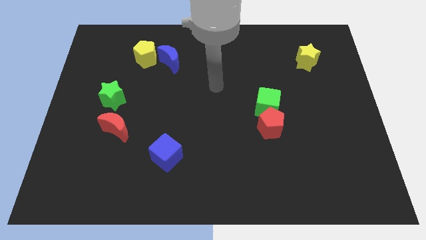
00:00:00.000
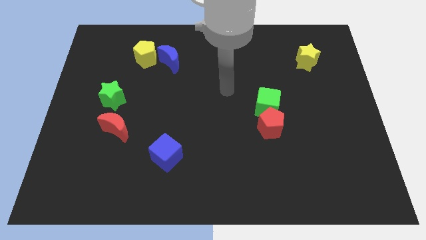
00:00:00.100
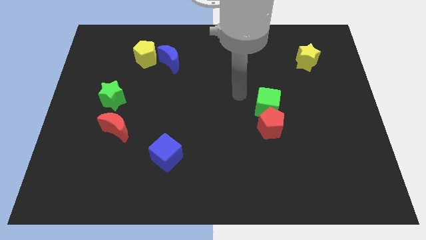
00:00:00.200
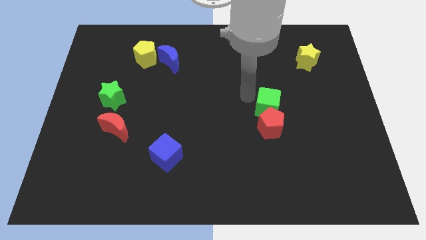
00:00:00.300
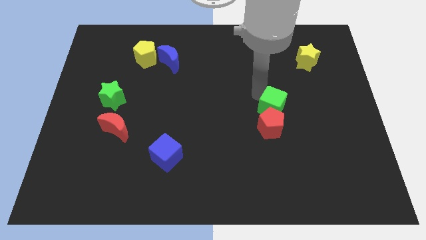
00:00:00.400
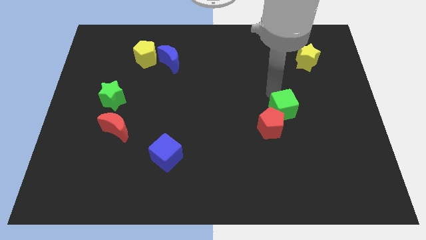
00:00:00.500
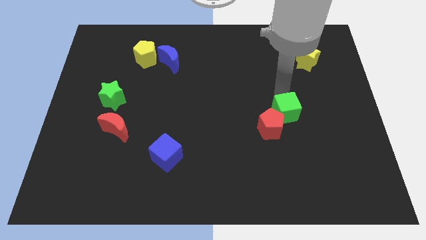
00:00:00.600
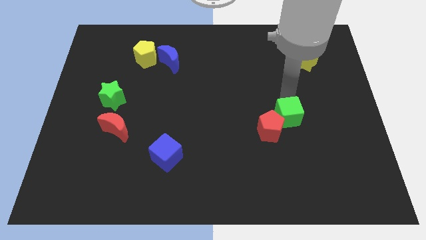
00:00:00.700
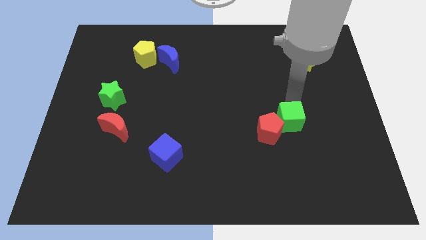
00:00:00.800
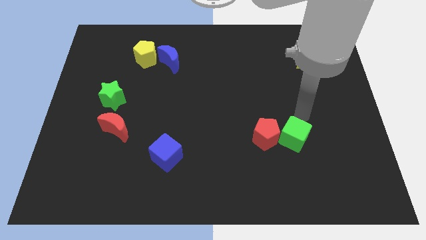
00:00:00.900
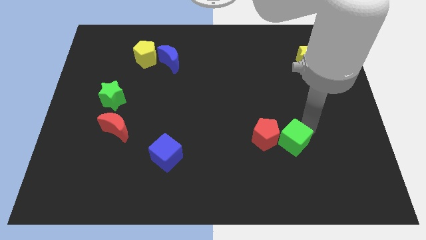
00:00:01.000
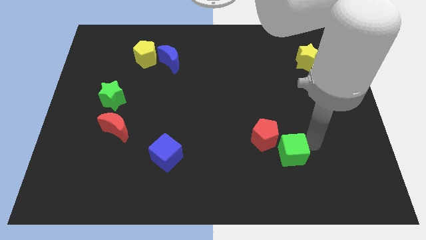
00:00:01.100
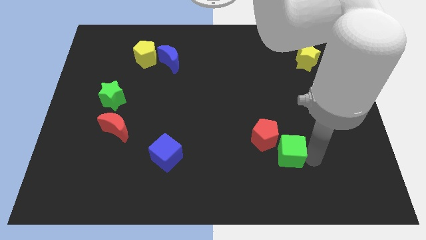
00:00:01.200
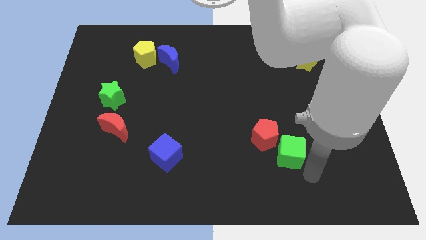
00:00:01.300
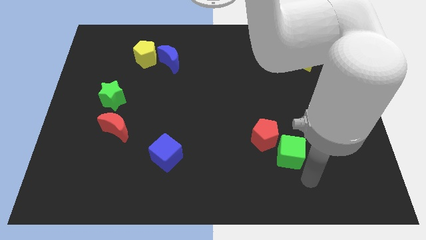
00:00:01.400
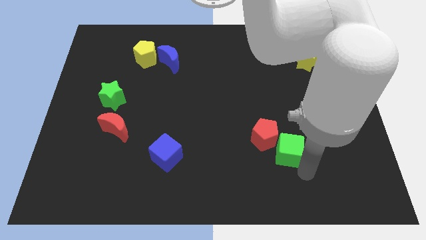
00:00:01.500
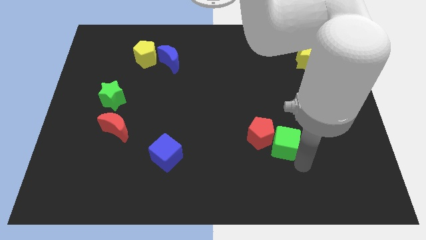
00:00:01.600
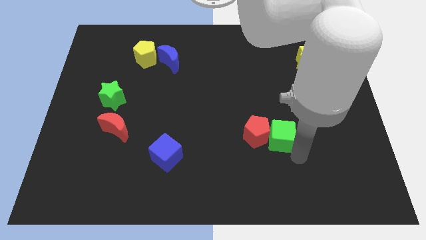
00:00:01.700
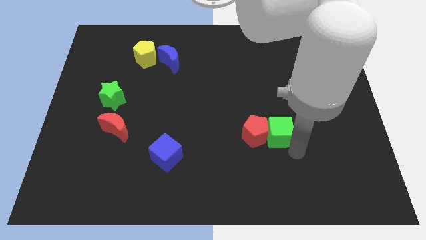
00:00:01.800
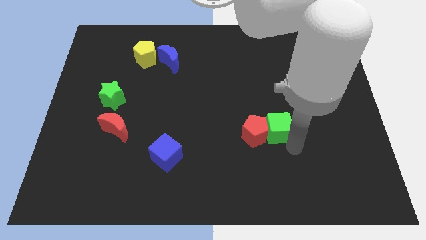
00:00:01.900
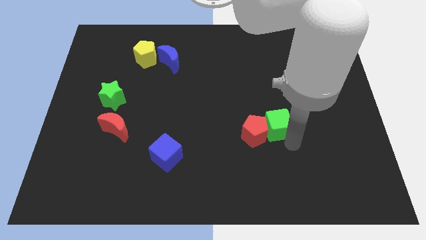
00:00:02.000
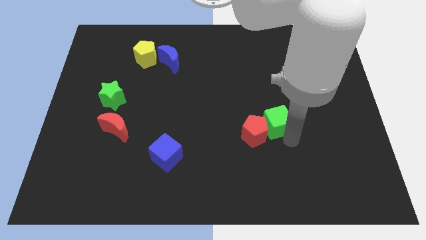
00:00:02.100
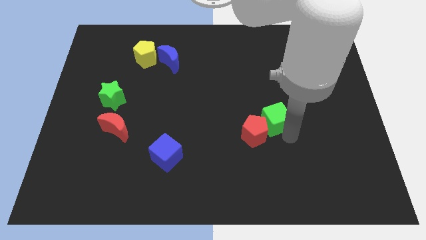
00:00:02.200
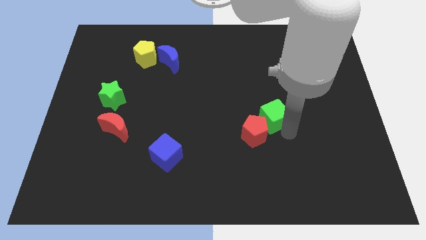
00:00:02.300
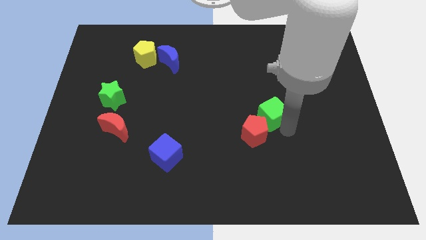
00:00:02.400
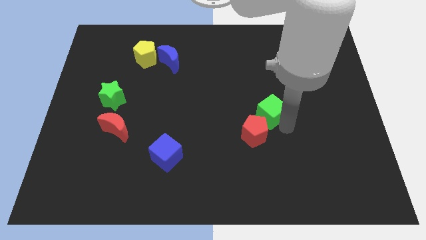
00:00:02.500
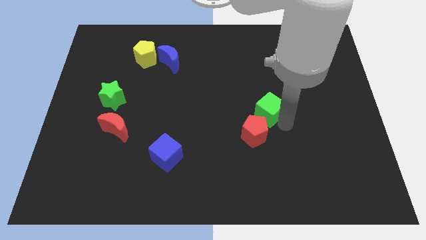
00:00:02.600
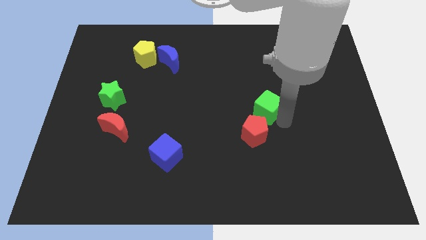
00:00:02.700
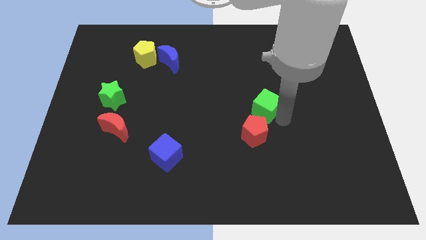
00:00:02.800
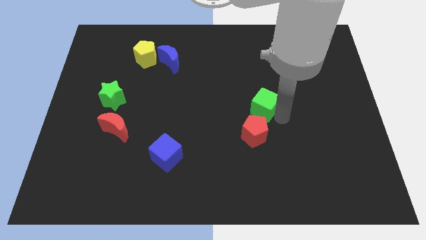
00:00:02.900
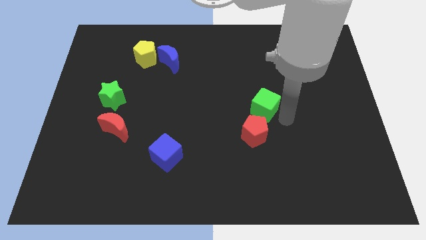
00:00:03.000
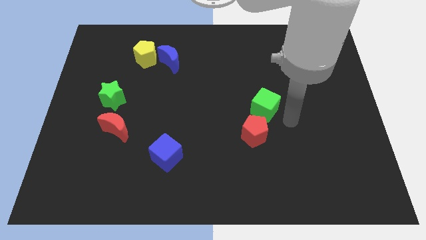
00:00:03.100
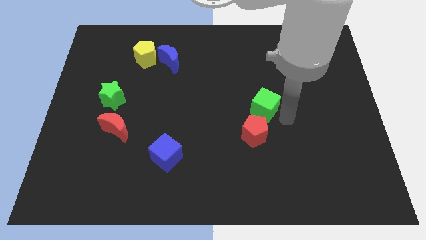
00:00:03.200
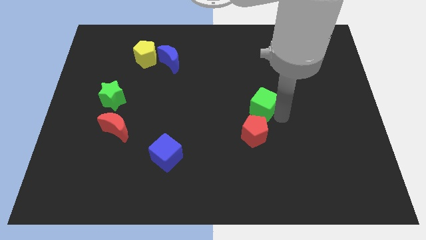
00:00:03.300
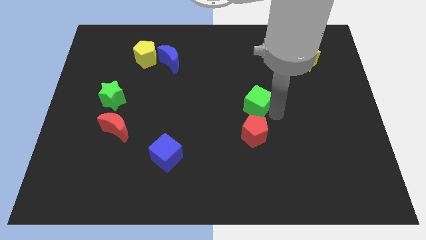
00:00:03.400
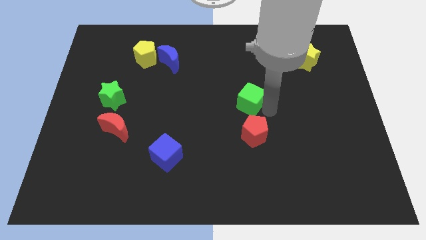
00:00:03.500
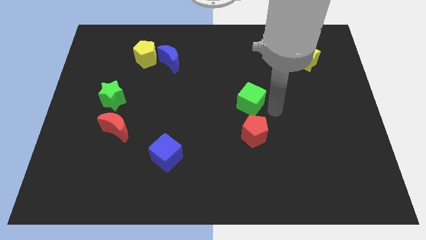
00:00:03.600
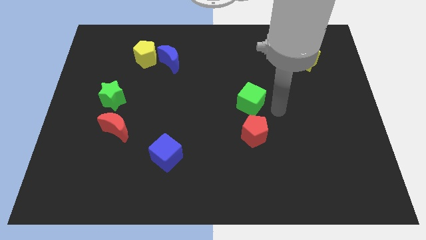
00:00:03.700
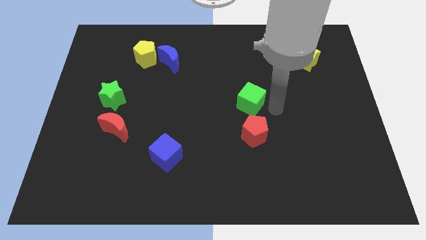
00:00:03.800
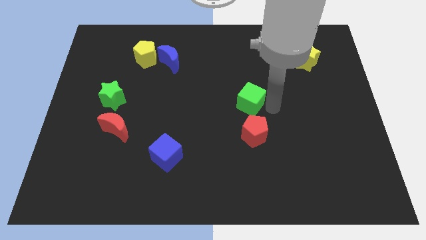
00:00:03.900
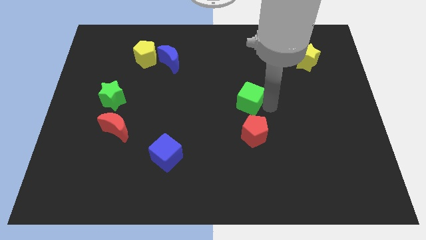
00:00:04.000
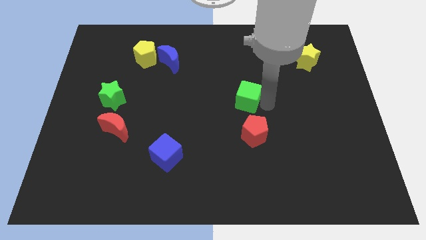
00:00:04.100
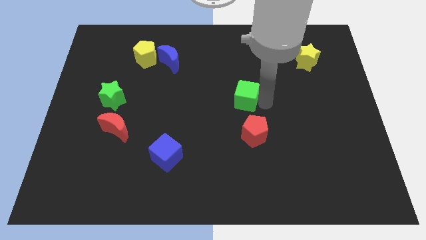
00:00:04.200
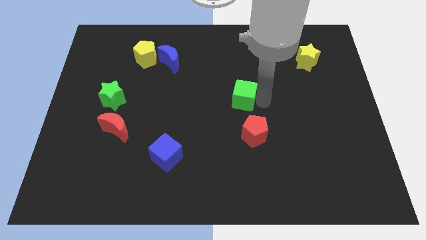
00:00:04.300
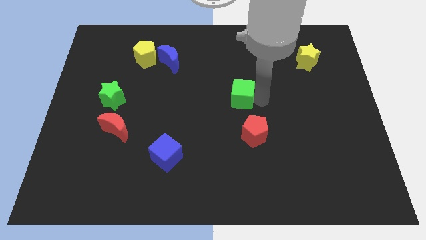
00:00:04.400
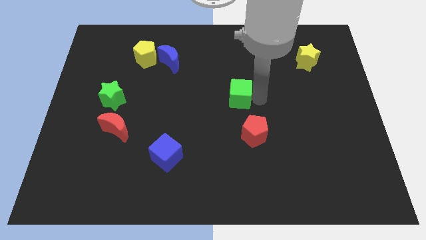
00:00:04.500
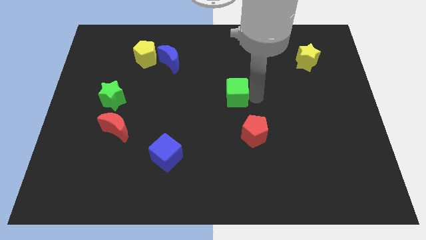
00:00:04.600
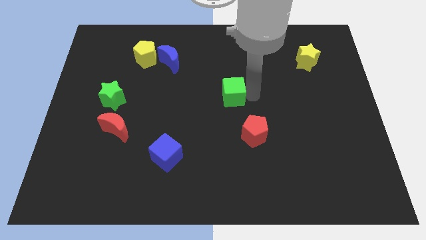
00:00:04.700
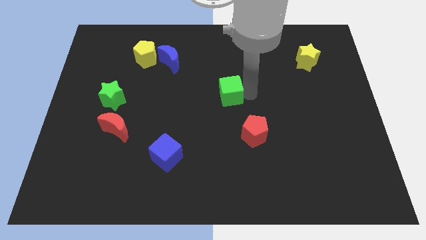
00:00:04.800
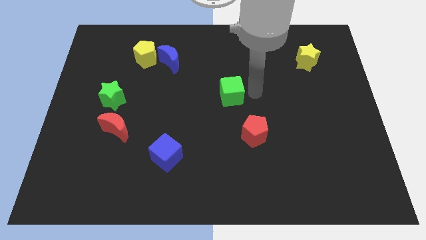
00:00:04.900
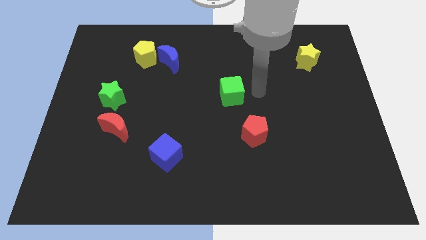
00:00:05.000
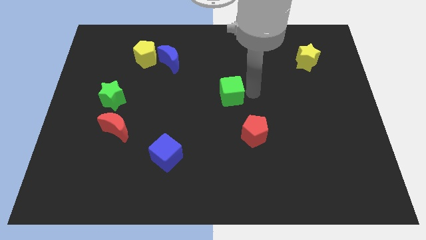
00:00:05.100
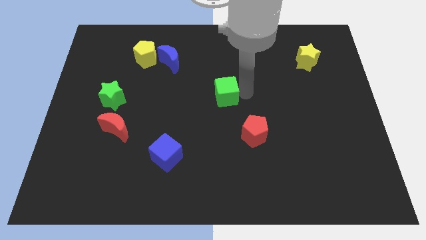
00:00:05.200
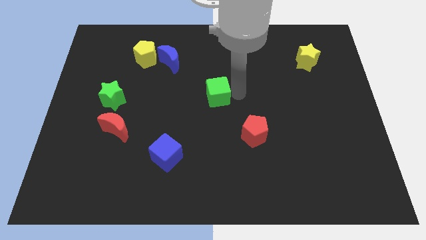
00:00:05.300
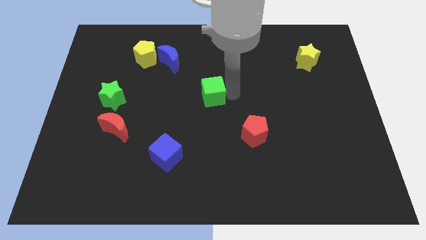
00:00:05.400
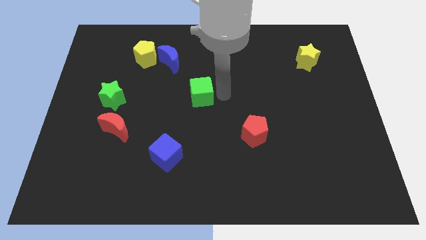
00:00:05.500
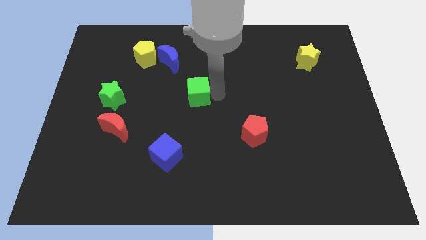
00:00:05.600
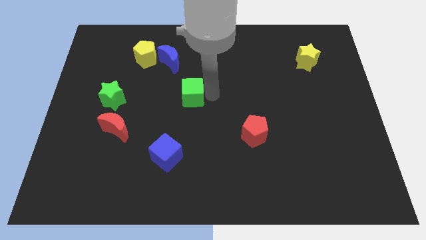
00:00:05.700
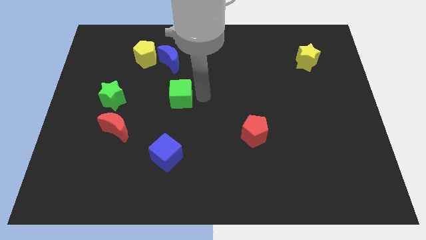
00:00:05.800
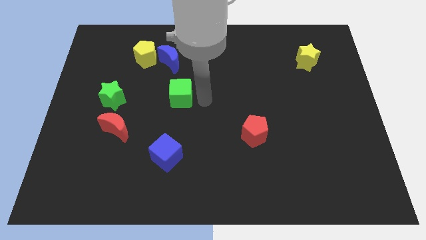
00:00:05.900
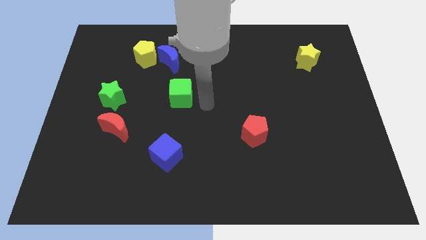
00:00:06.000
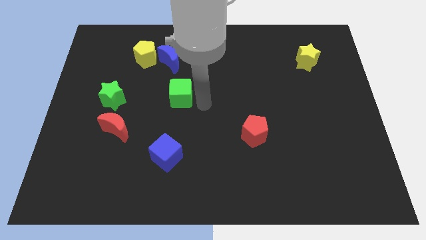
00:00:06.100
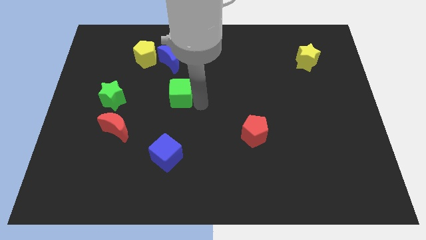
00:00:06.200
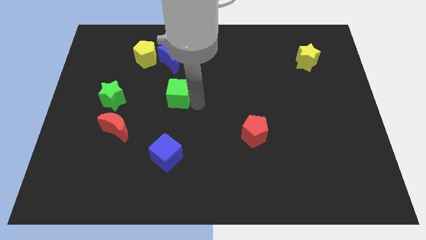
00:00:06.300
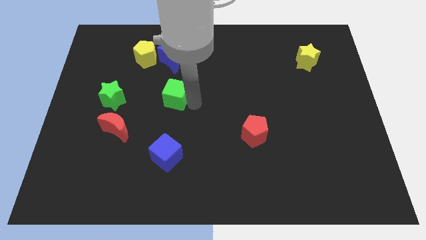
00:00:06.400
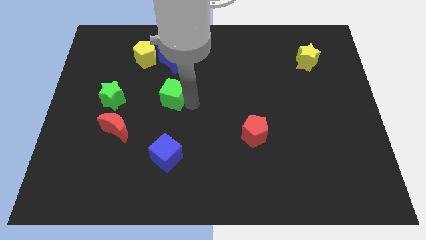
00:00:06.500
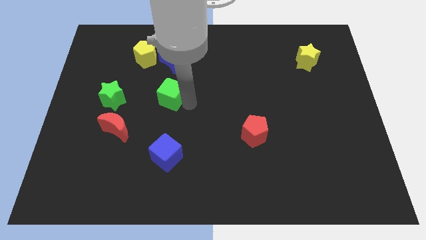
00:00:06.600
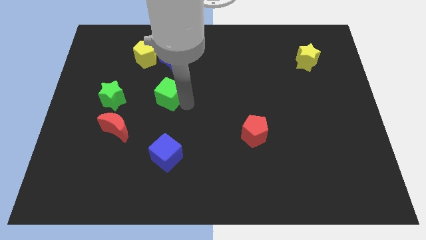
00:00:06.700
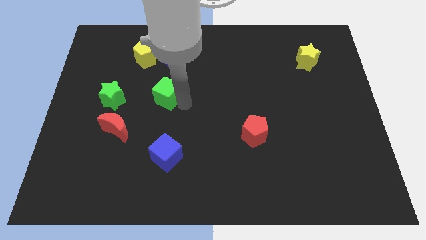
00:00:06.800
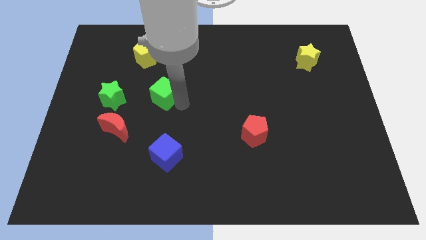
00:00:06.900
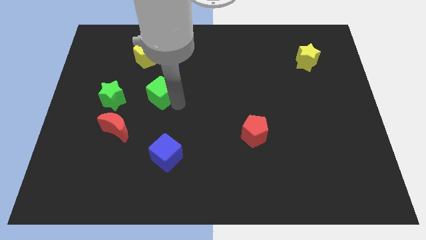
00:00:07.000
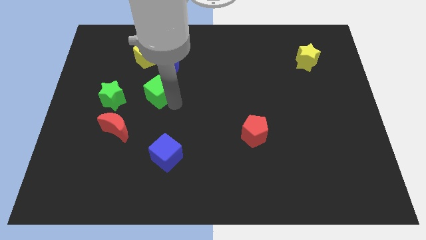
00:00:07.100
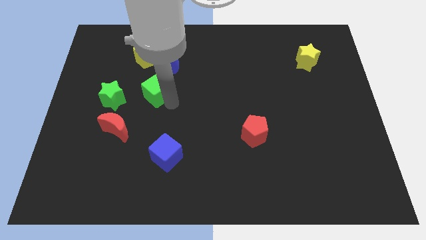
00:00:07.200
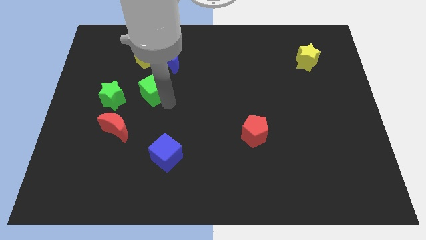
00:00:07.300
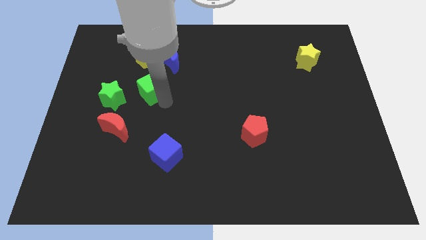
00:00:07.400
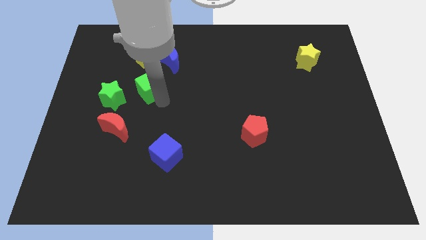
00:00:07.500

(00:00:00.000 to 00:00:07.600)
slide the green cube to the bottom left of the blue moon

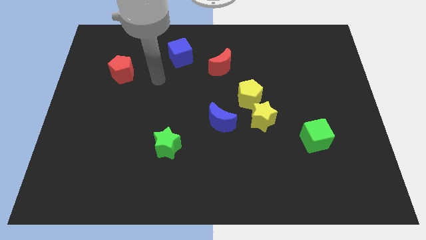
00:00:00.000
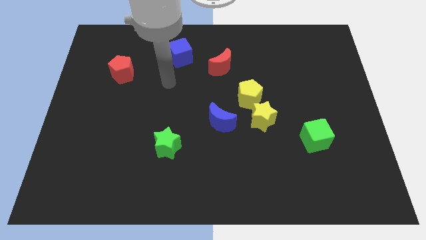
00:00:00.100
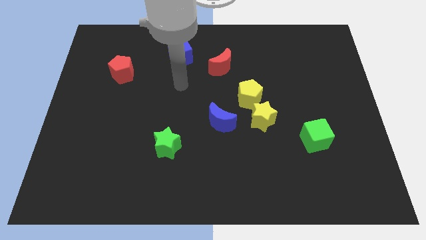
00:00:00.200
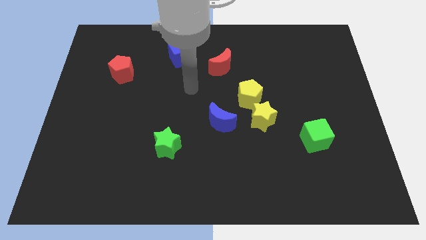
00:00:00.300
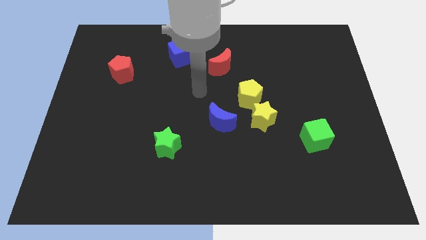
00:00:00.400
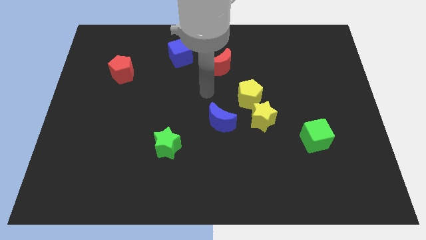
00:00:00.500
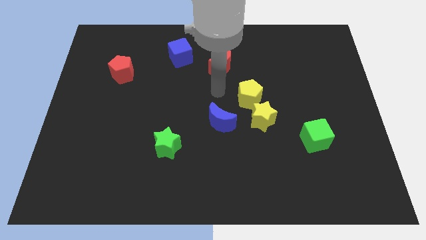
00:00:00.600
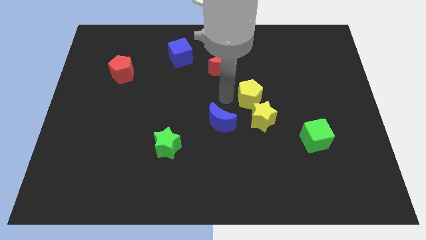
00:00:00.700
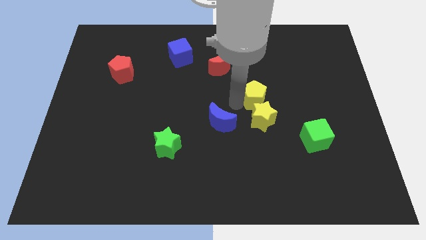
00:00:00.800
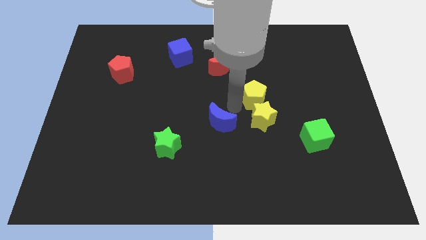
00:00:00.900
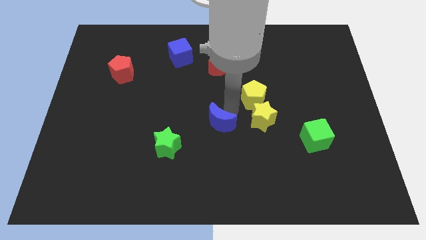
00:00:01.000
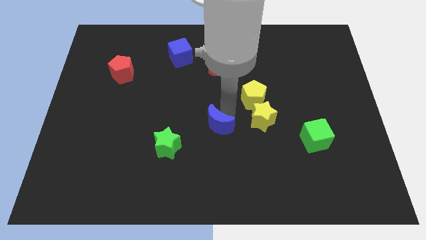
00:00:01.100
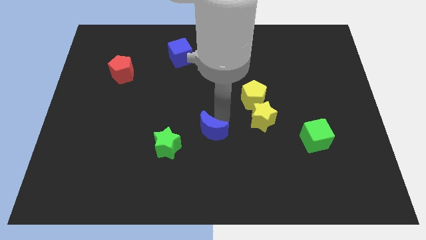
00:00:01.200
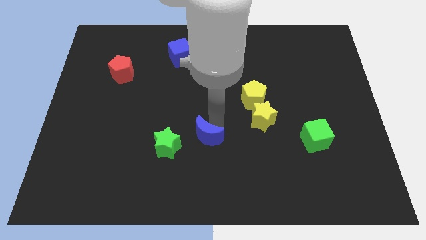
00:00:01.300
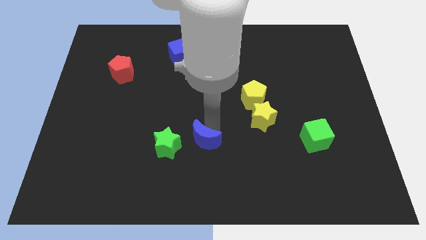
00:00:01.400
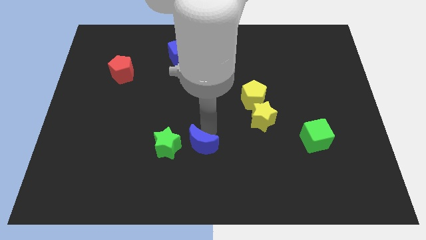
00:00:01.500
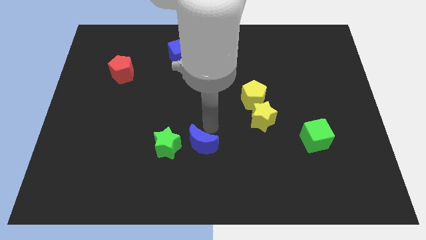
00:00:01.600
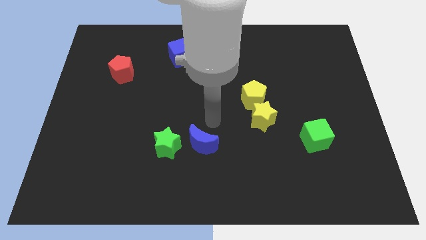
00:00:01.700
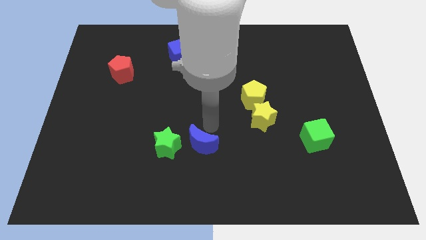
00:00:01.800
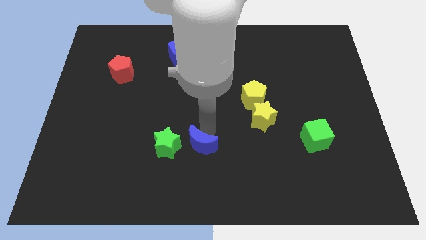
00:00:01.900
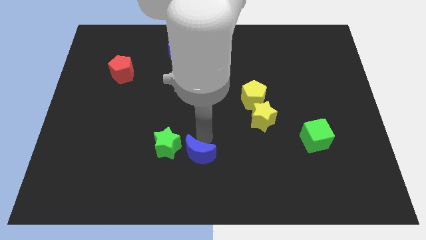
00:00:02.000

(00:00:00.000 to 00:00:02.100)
slide the blue moon to the bottom right of the green star
